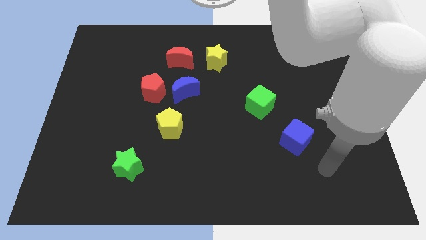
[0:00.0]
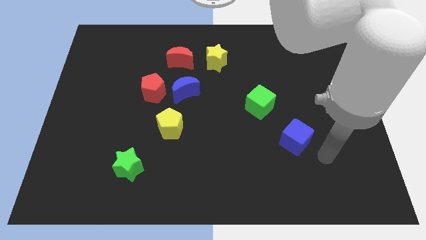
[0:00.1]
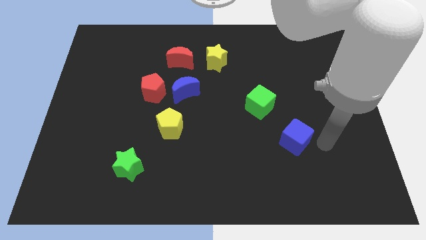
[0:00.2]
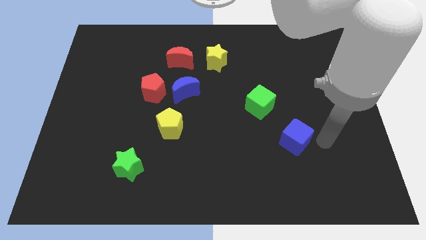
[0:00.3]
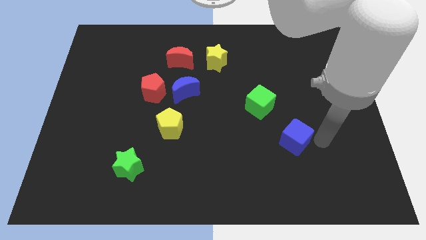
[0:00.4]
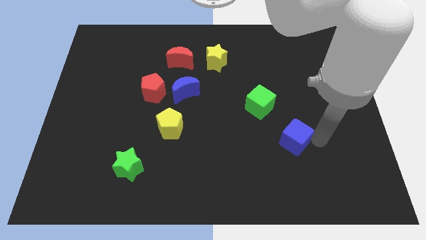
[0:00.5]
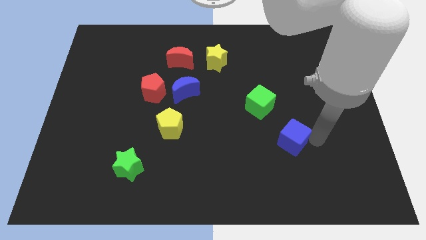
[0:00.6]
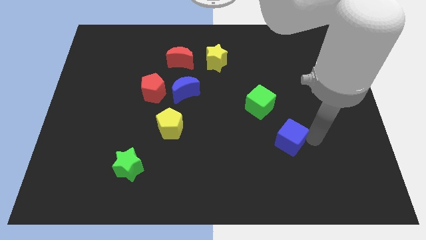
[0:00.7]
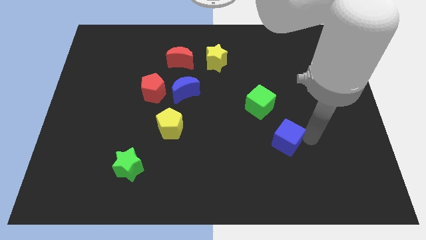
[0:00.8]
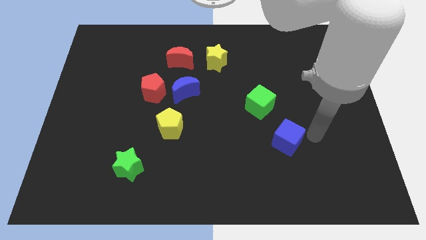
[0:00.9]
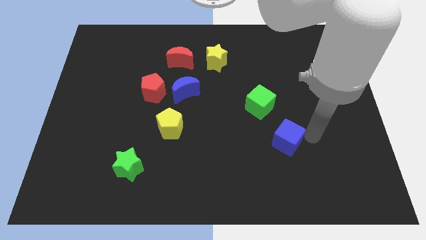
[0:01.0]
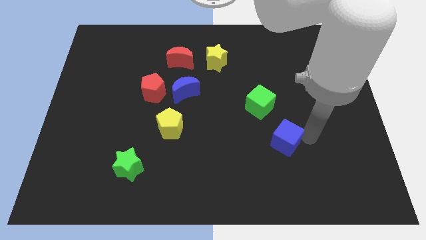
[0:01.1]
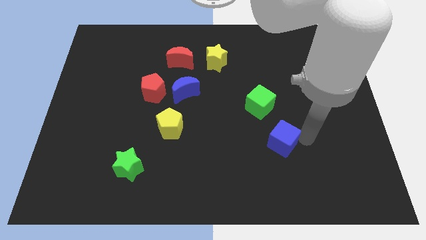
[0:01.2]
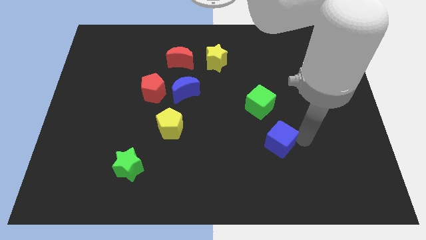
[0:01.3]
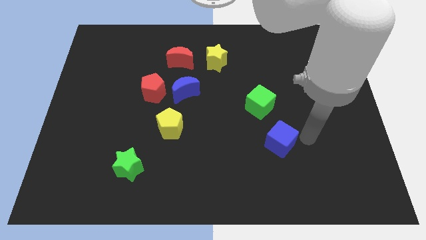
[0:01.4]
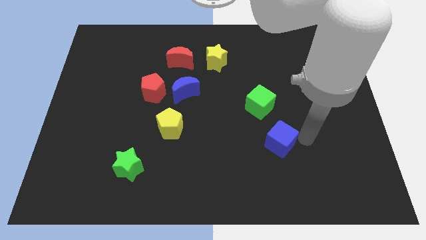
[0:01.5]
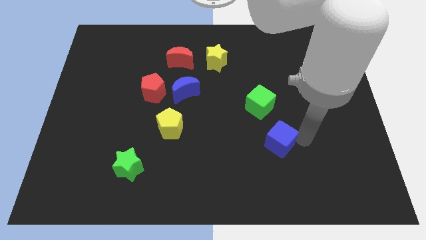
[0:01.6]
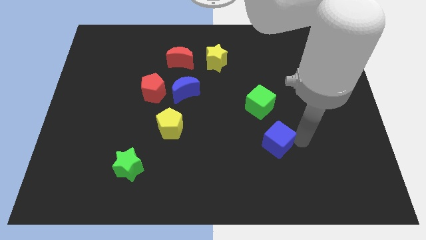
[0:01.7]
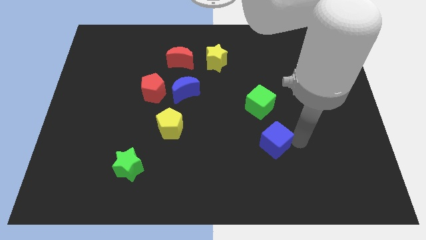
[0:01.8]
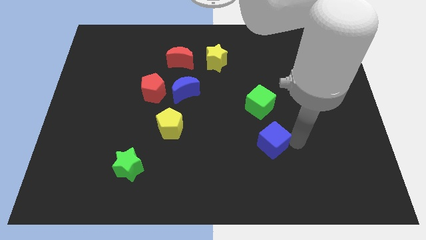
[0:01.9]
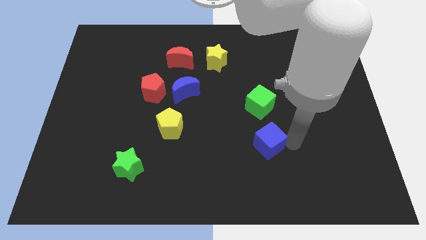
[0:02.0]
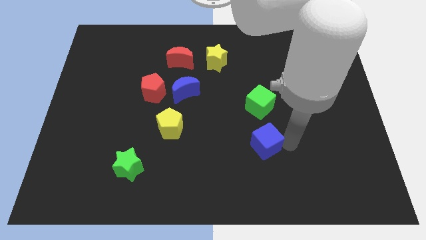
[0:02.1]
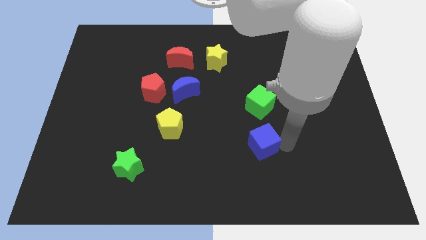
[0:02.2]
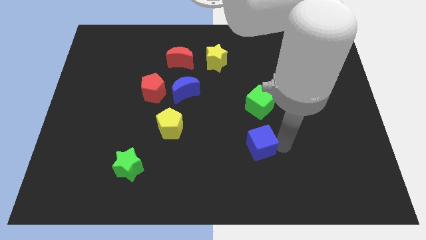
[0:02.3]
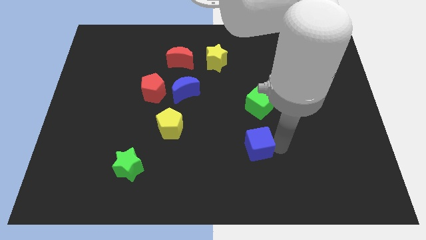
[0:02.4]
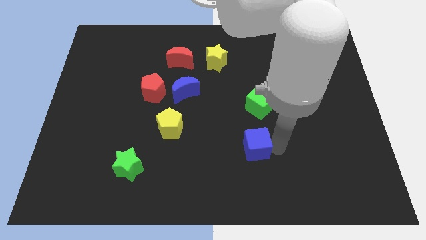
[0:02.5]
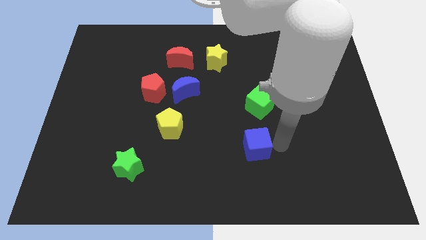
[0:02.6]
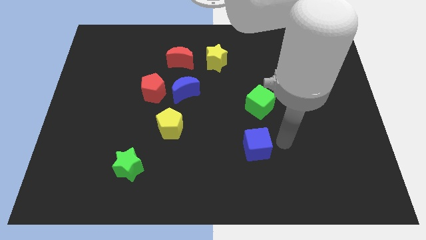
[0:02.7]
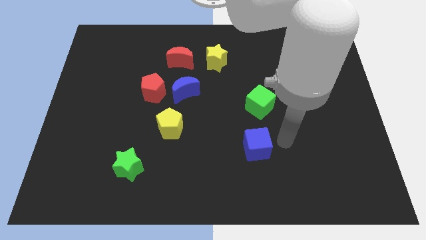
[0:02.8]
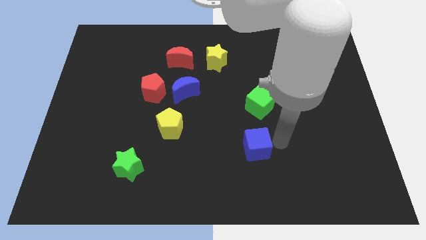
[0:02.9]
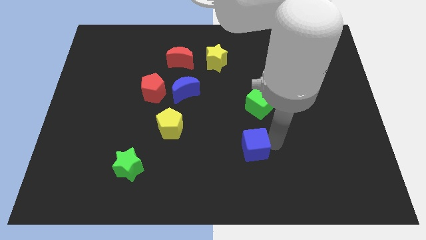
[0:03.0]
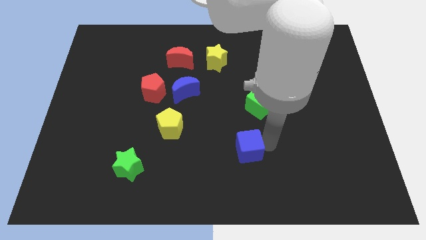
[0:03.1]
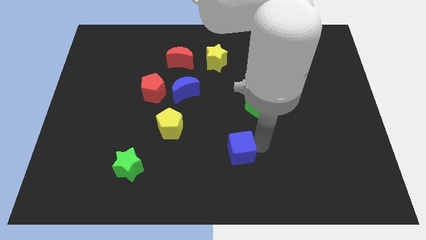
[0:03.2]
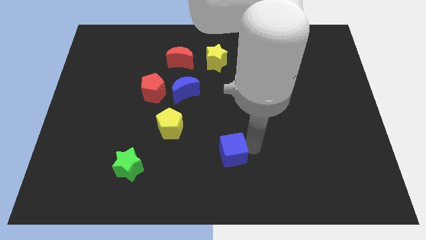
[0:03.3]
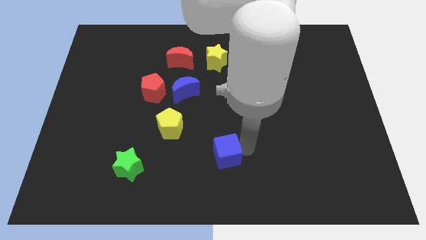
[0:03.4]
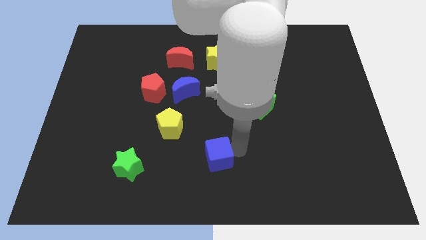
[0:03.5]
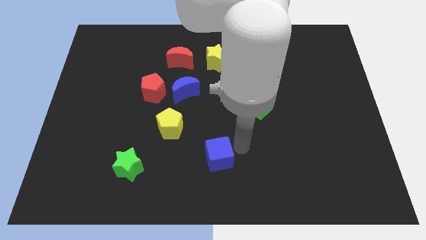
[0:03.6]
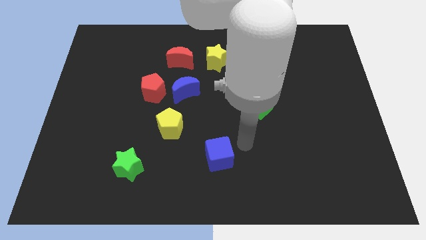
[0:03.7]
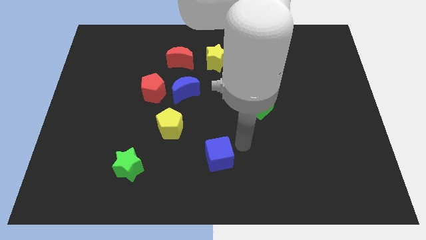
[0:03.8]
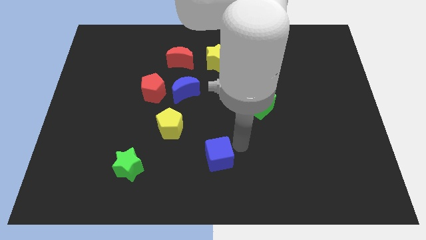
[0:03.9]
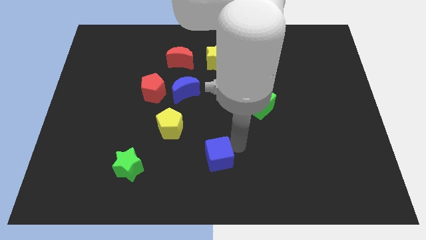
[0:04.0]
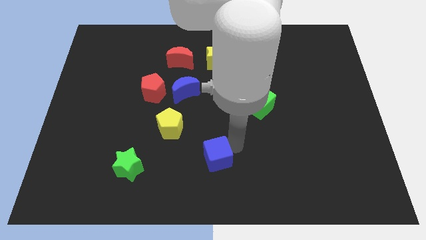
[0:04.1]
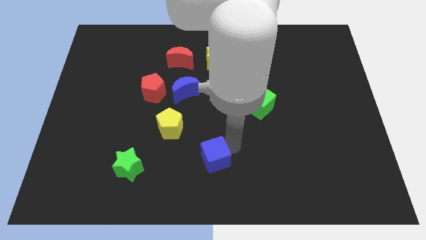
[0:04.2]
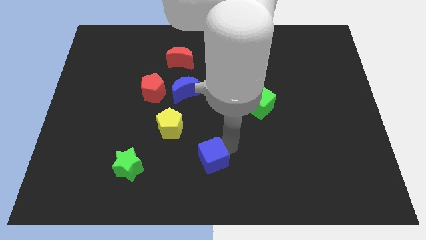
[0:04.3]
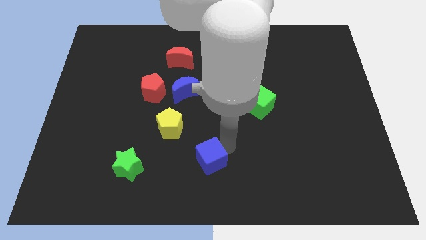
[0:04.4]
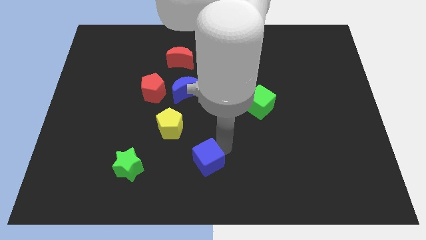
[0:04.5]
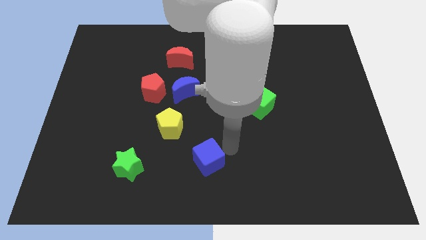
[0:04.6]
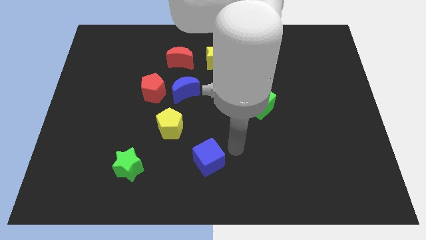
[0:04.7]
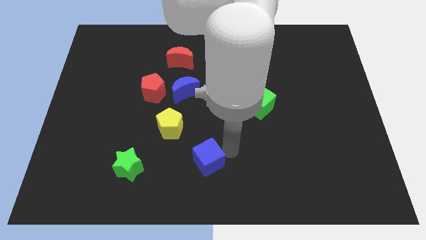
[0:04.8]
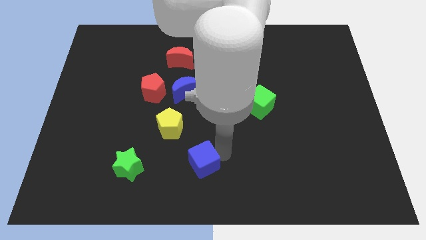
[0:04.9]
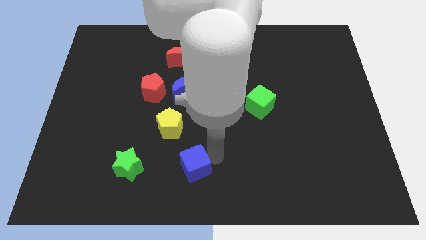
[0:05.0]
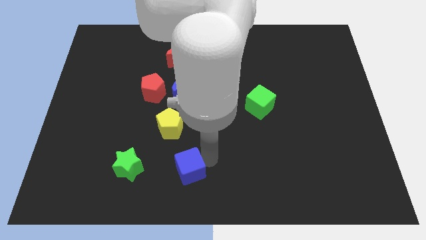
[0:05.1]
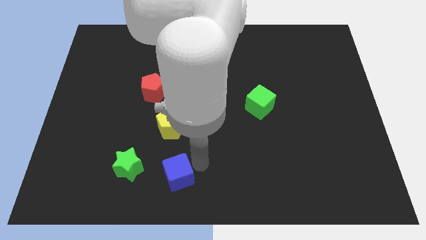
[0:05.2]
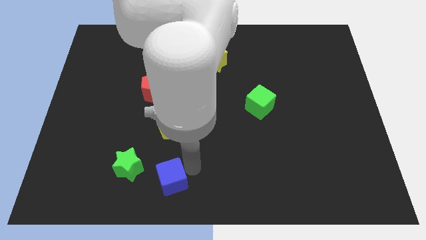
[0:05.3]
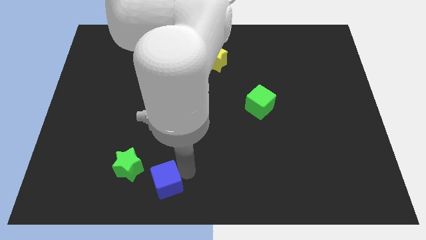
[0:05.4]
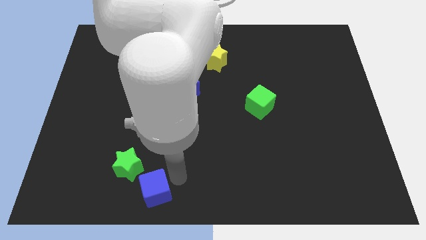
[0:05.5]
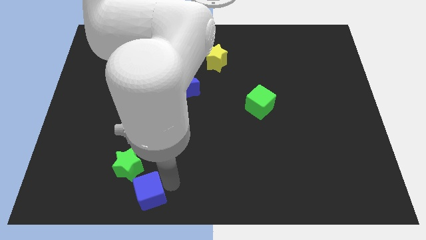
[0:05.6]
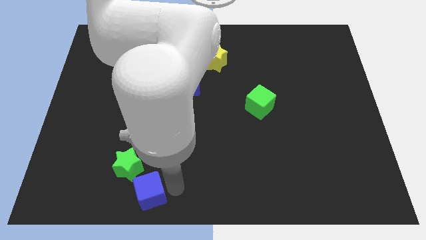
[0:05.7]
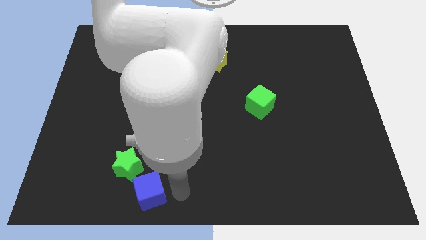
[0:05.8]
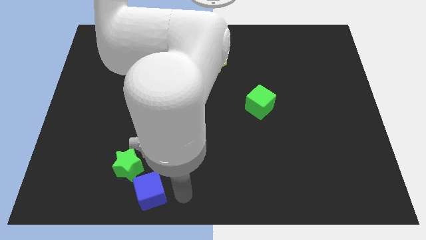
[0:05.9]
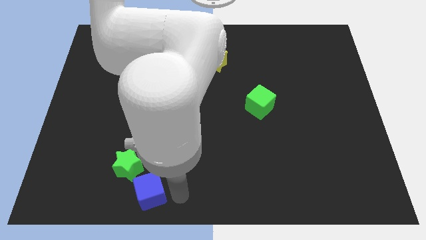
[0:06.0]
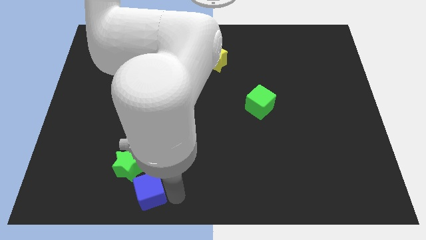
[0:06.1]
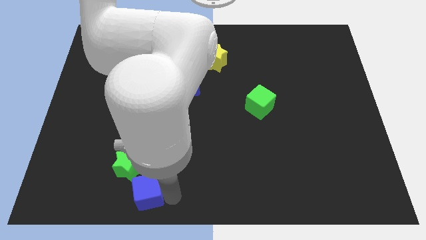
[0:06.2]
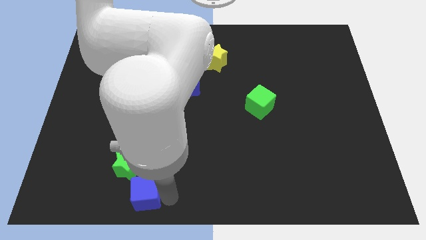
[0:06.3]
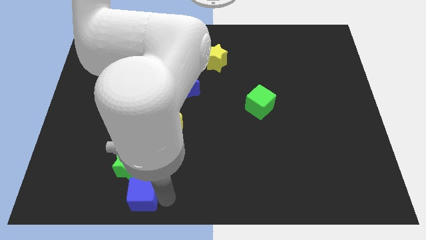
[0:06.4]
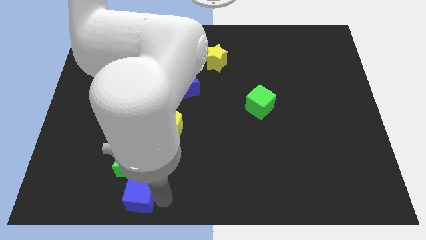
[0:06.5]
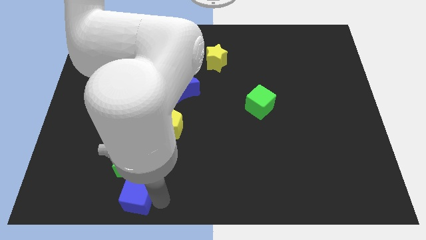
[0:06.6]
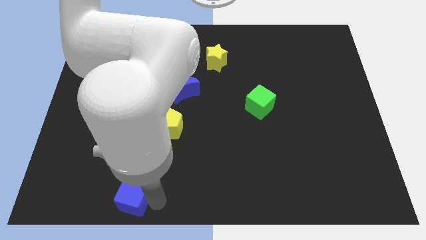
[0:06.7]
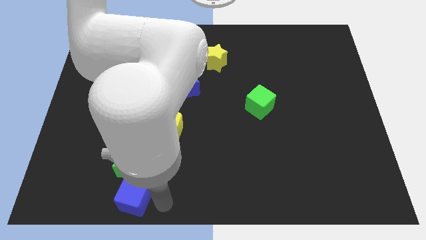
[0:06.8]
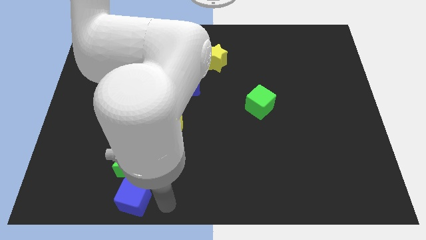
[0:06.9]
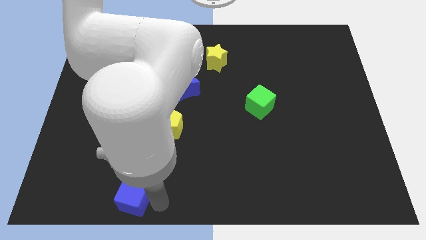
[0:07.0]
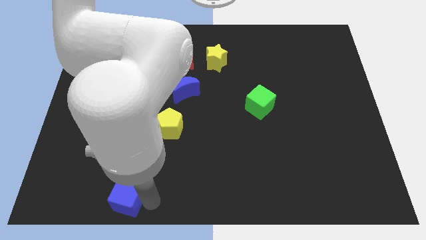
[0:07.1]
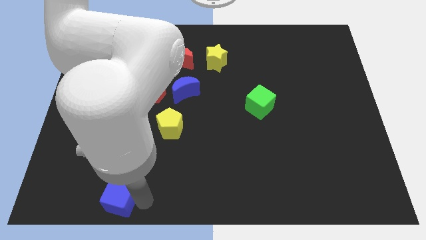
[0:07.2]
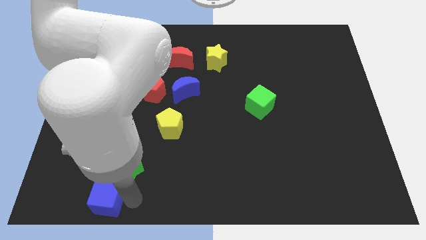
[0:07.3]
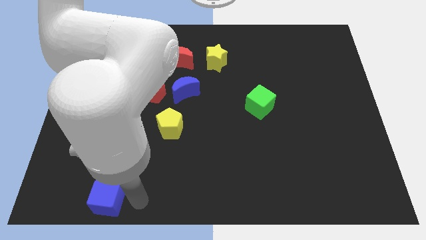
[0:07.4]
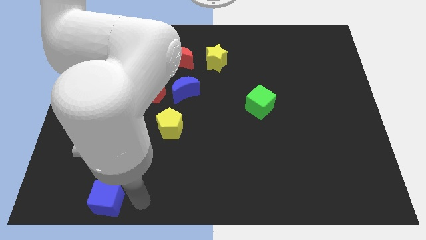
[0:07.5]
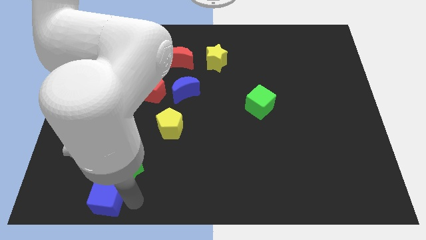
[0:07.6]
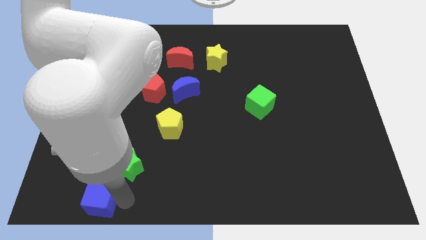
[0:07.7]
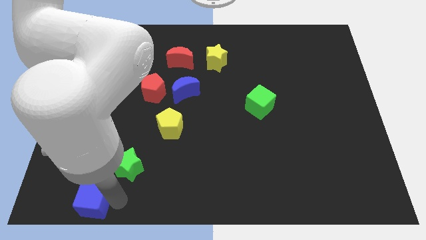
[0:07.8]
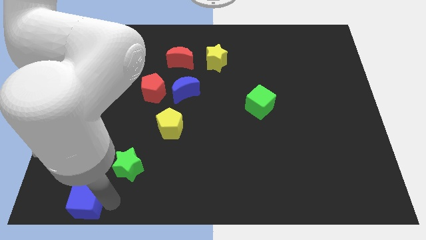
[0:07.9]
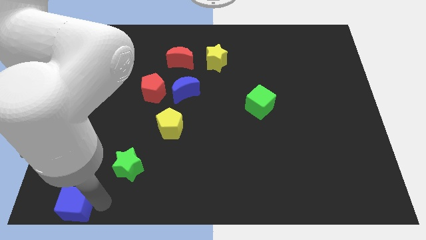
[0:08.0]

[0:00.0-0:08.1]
move the blue cube to the bottom left of the board
